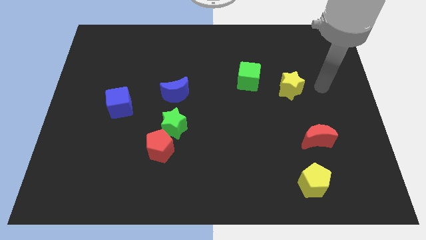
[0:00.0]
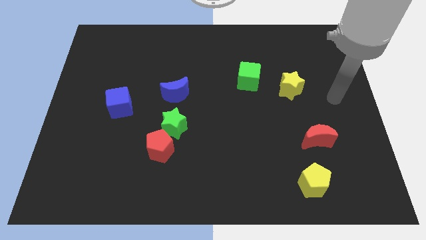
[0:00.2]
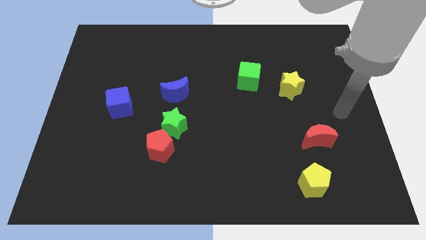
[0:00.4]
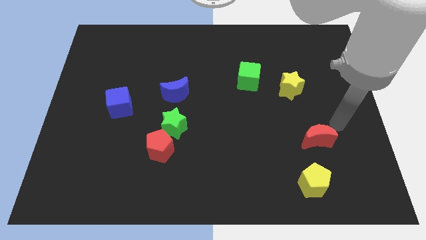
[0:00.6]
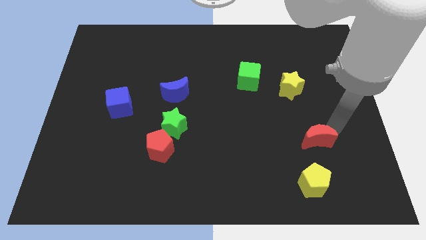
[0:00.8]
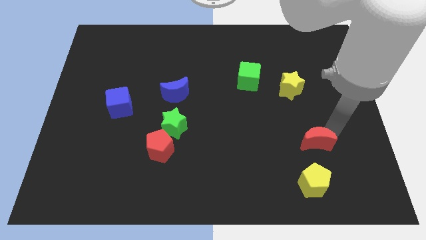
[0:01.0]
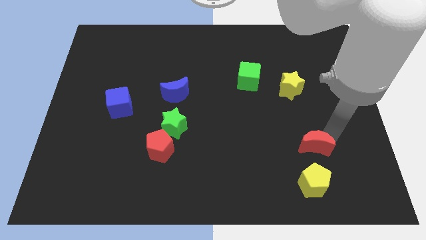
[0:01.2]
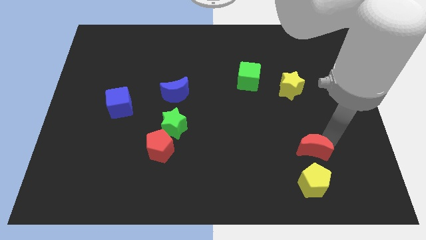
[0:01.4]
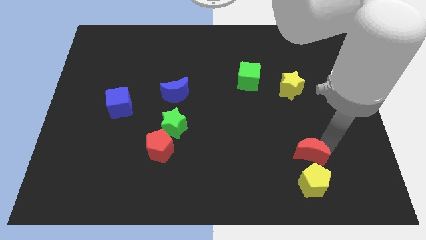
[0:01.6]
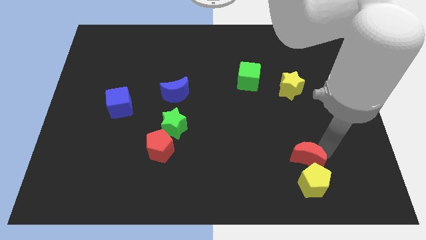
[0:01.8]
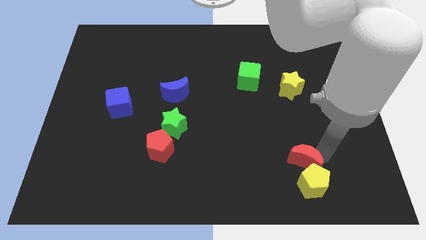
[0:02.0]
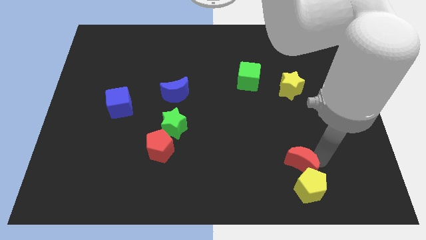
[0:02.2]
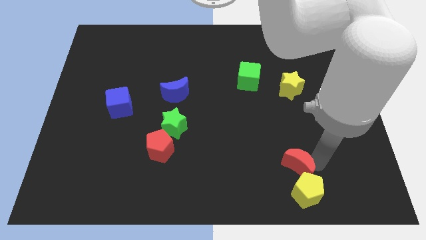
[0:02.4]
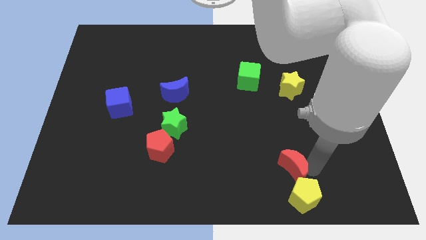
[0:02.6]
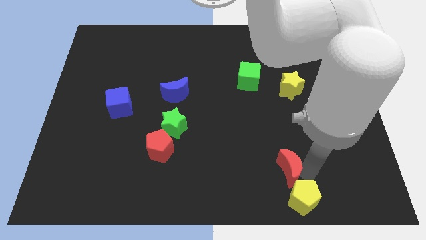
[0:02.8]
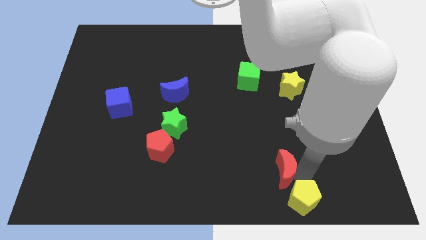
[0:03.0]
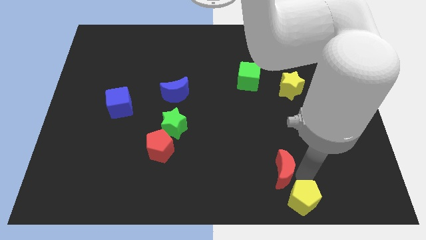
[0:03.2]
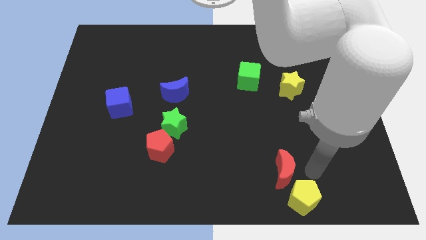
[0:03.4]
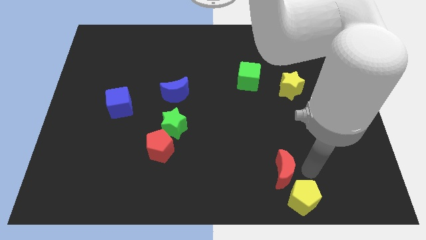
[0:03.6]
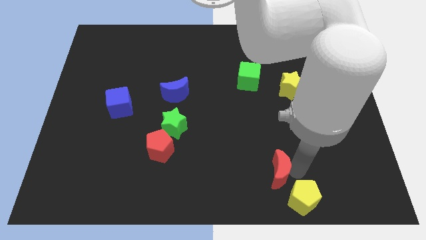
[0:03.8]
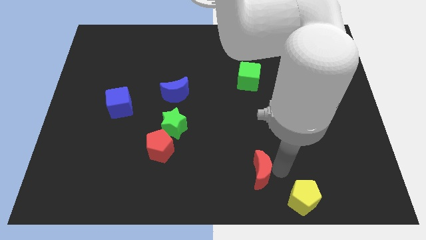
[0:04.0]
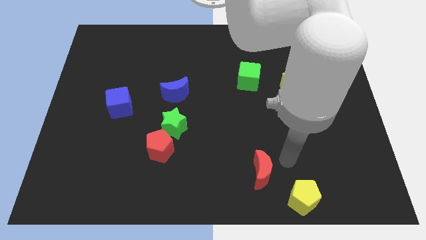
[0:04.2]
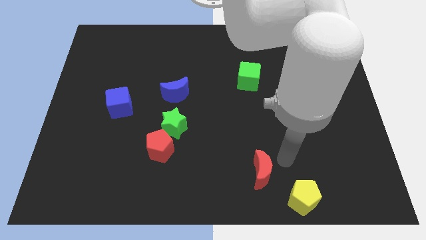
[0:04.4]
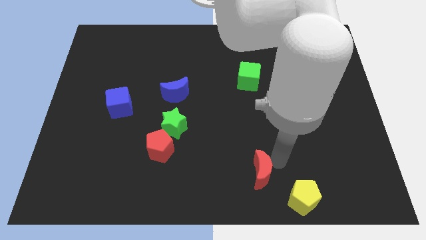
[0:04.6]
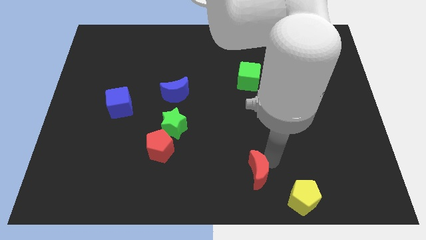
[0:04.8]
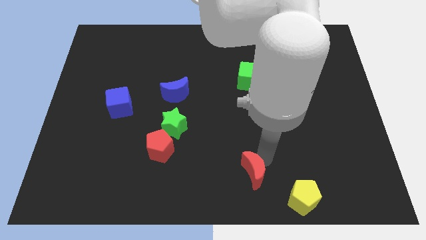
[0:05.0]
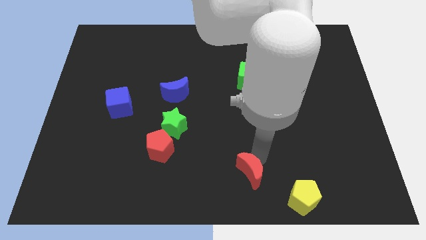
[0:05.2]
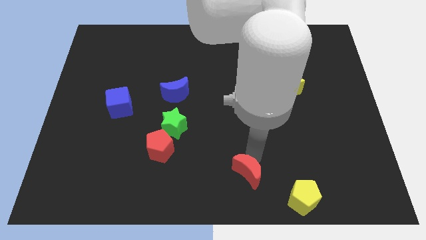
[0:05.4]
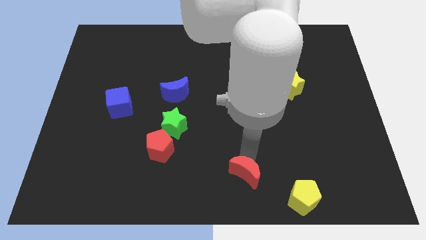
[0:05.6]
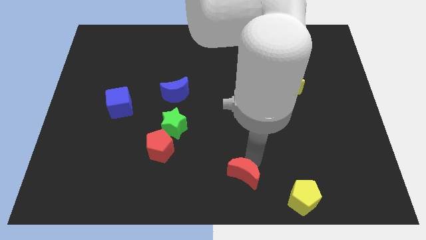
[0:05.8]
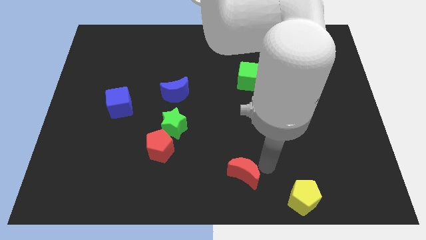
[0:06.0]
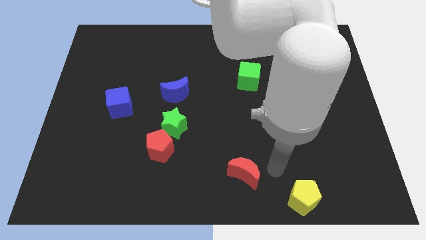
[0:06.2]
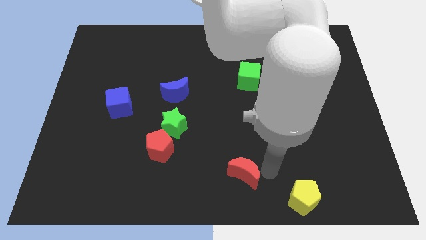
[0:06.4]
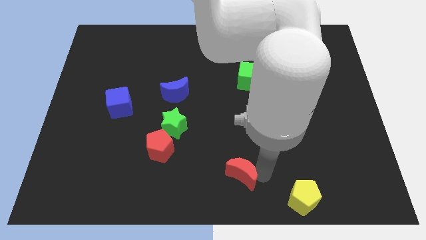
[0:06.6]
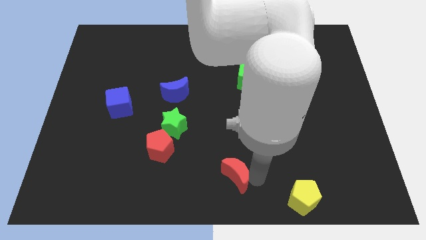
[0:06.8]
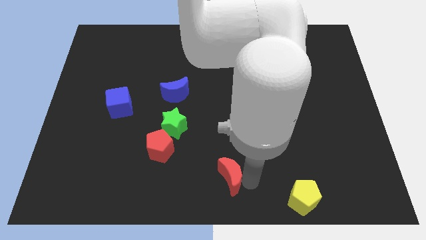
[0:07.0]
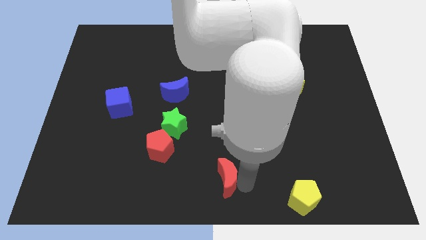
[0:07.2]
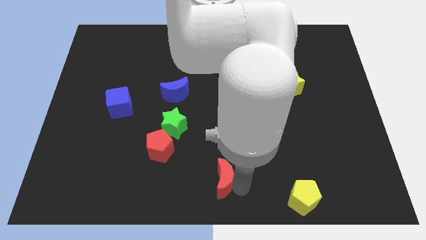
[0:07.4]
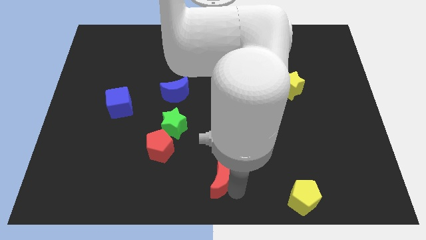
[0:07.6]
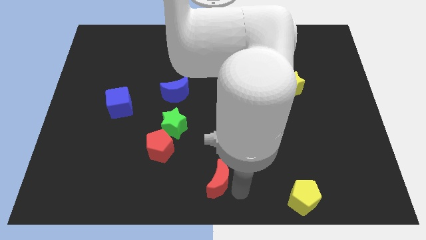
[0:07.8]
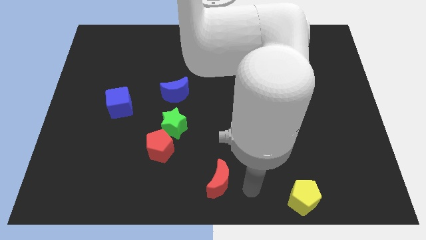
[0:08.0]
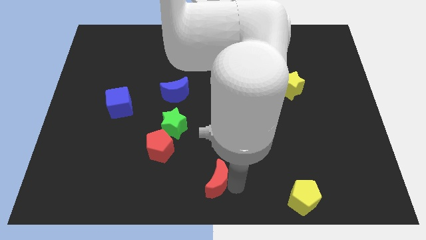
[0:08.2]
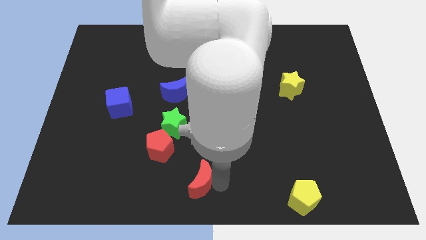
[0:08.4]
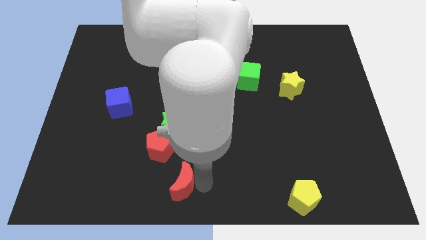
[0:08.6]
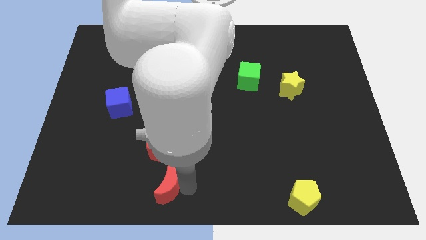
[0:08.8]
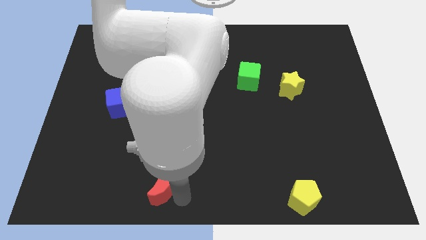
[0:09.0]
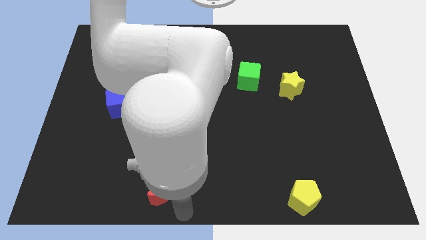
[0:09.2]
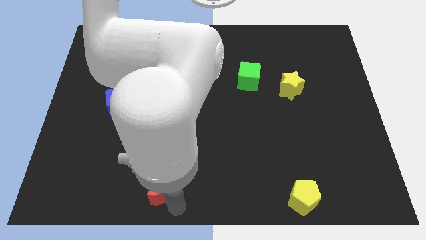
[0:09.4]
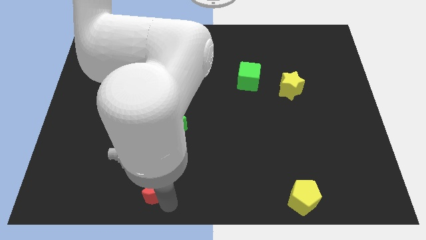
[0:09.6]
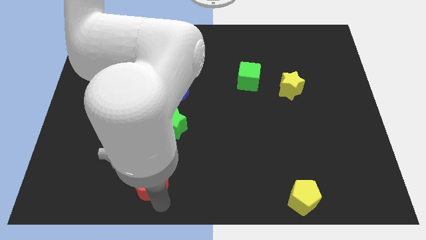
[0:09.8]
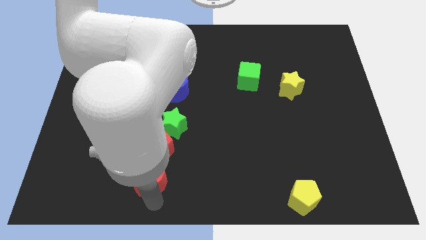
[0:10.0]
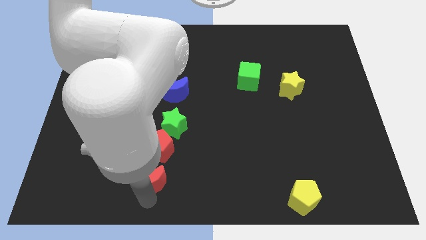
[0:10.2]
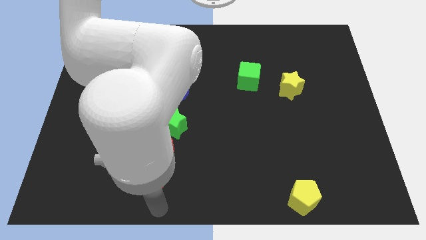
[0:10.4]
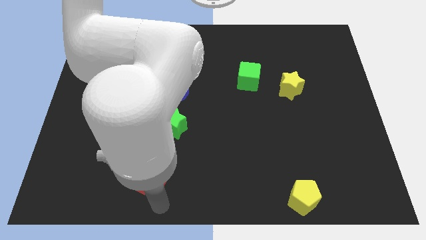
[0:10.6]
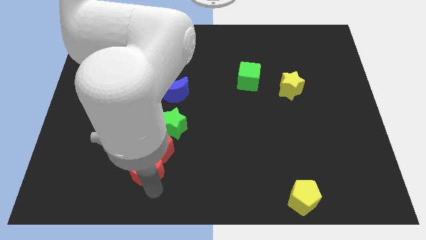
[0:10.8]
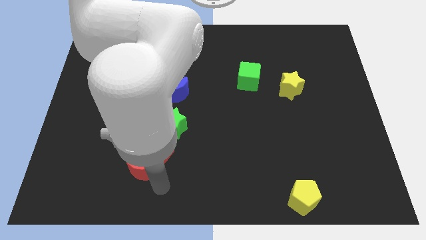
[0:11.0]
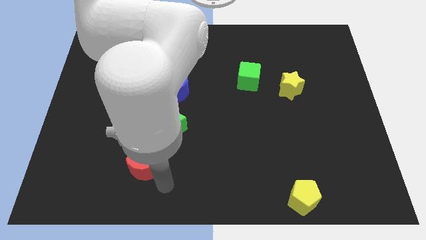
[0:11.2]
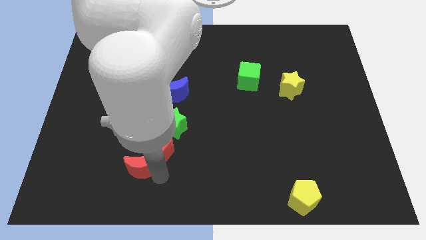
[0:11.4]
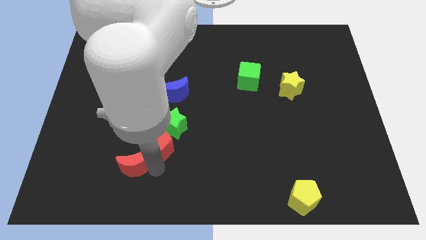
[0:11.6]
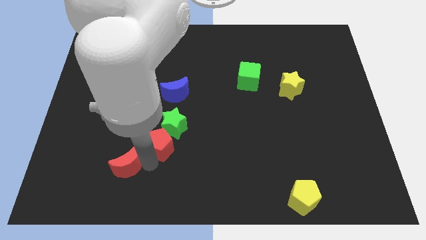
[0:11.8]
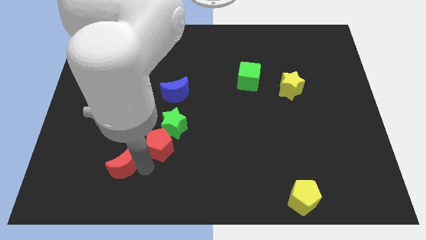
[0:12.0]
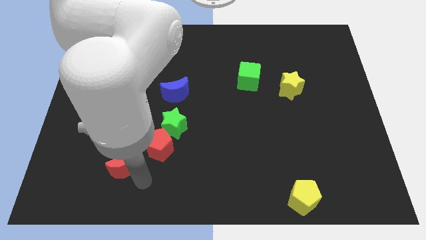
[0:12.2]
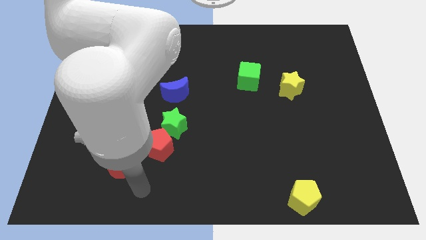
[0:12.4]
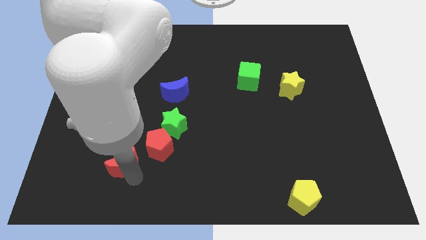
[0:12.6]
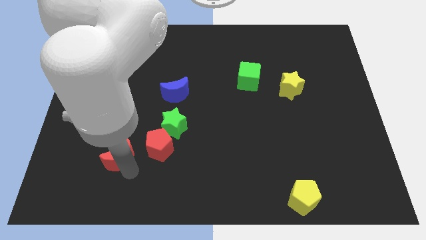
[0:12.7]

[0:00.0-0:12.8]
move the red moon below the blue cube

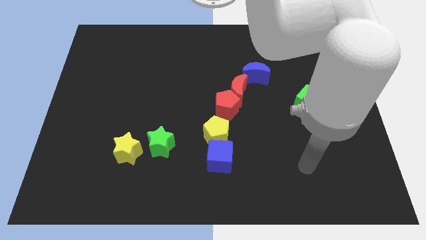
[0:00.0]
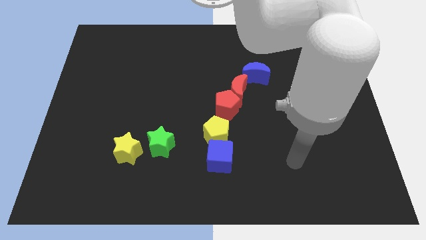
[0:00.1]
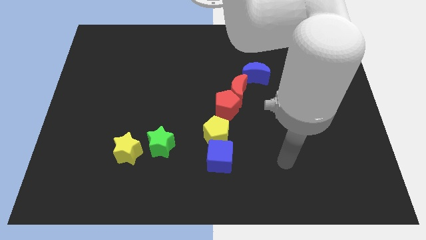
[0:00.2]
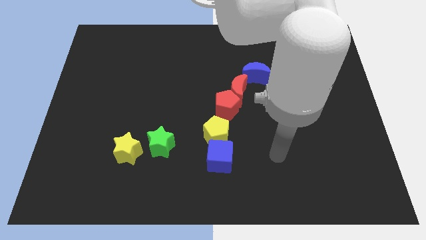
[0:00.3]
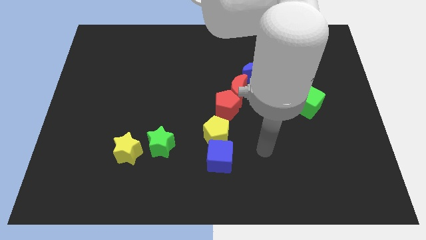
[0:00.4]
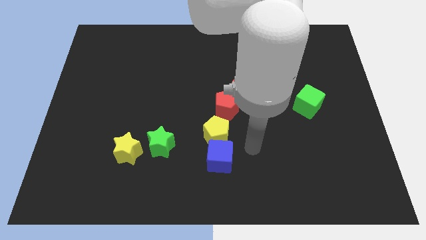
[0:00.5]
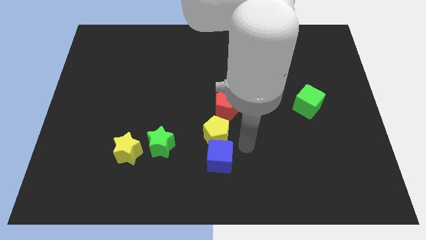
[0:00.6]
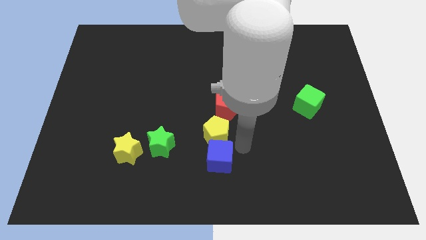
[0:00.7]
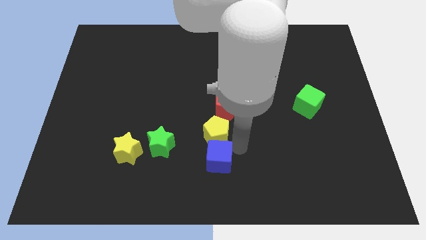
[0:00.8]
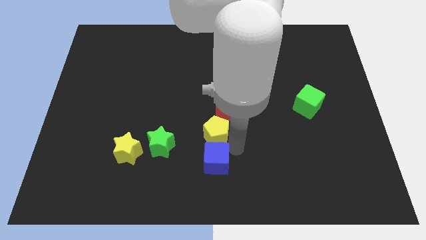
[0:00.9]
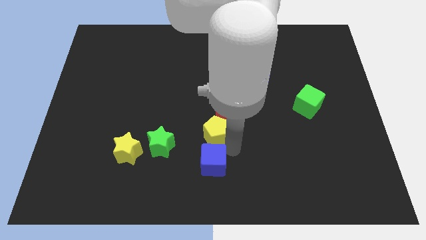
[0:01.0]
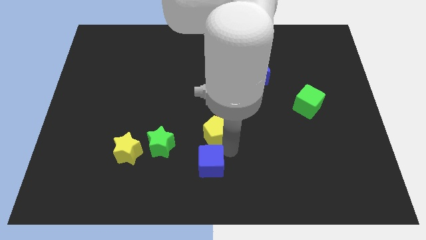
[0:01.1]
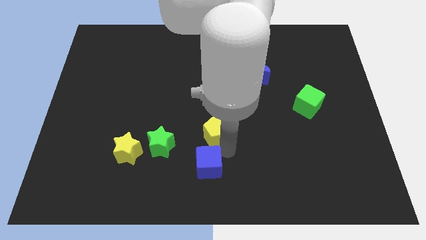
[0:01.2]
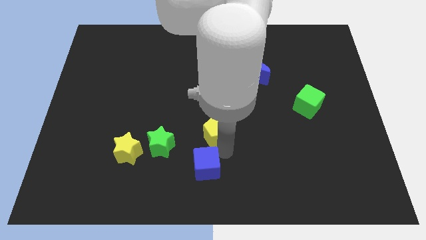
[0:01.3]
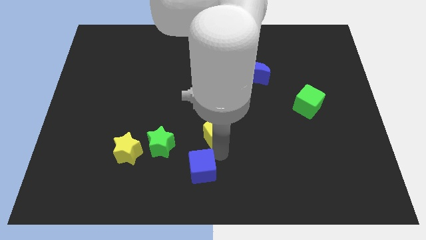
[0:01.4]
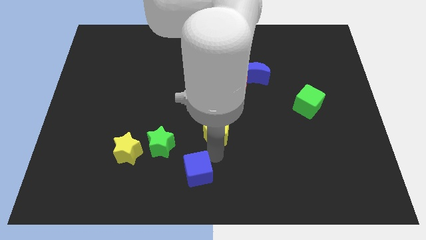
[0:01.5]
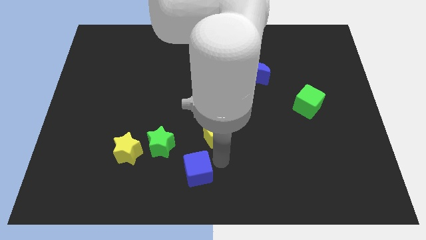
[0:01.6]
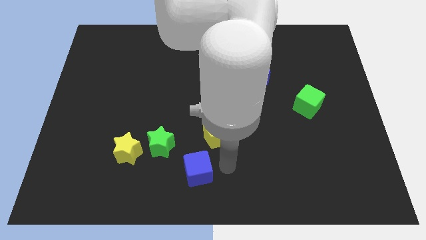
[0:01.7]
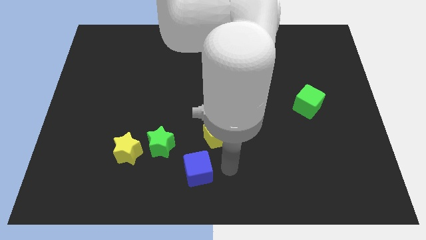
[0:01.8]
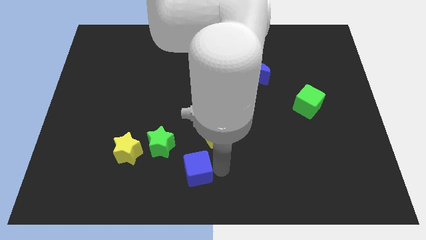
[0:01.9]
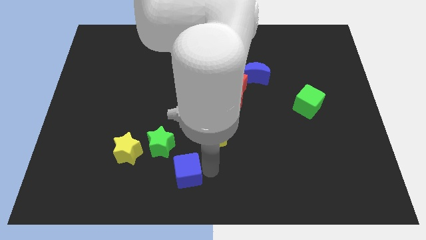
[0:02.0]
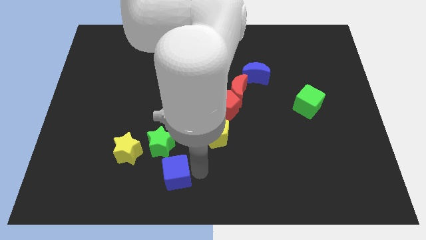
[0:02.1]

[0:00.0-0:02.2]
push the blue cube diagonally down and to the right of the yellow star
